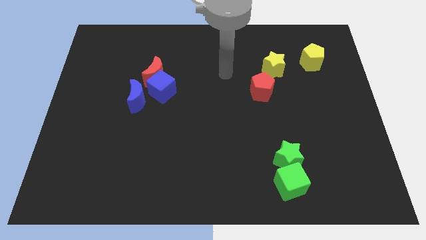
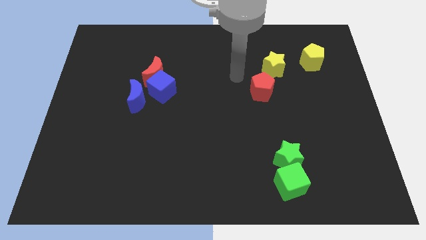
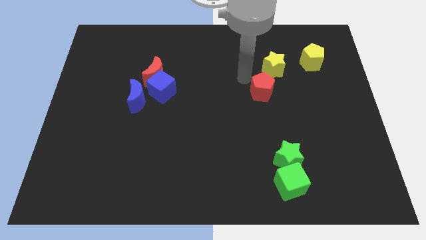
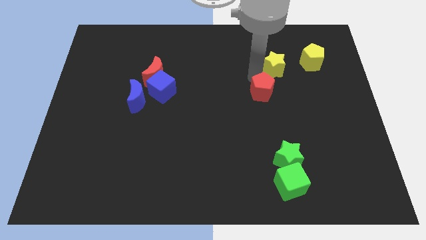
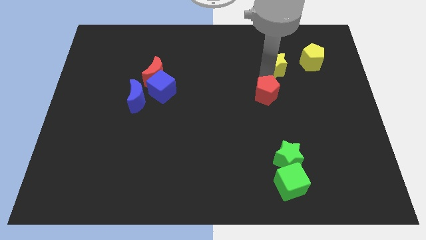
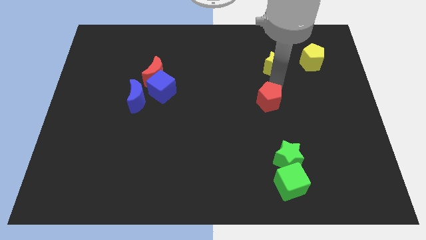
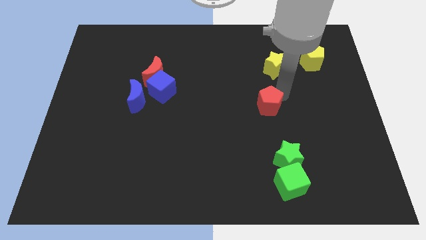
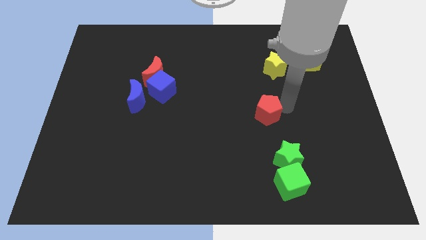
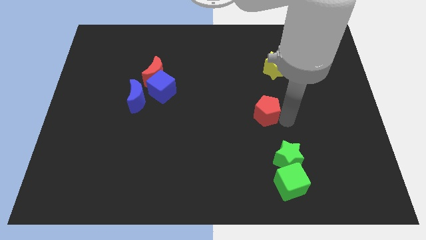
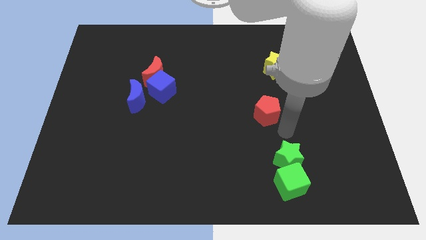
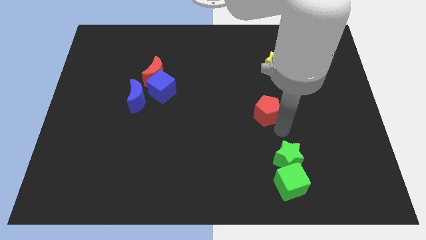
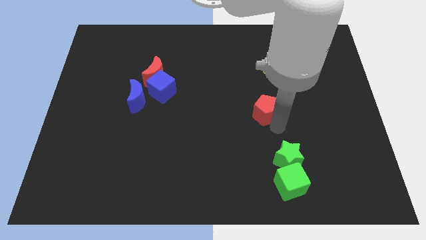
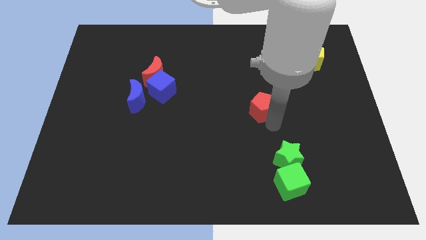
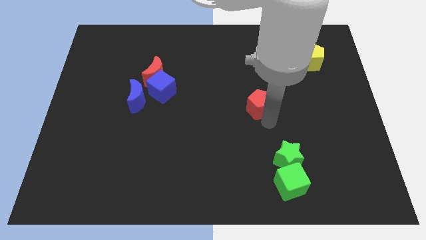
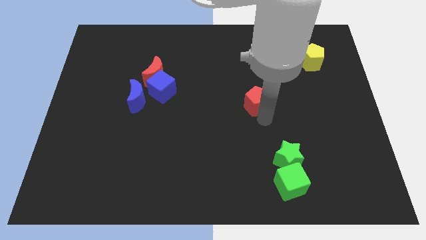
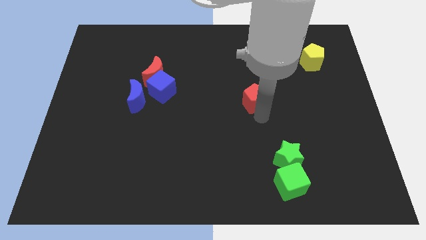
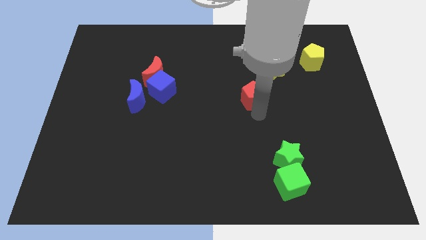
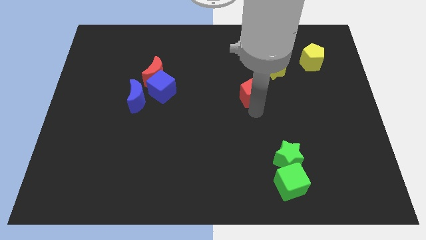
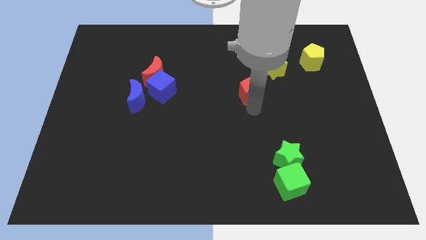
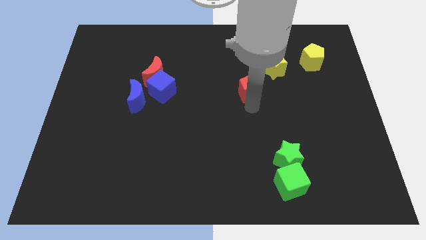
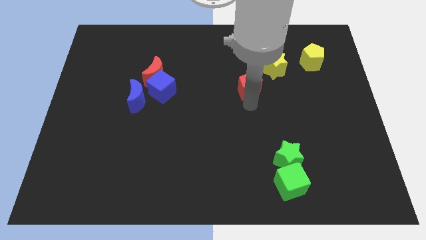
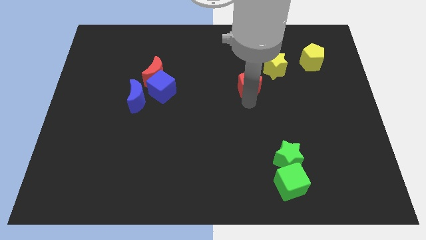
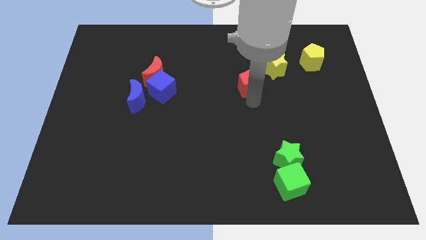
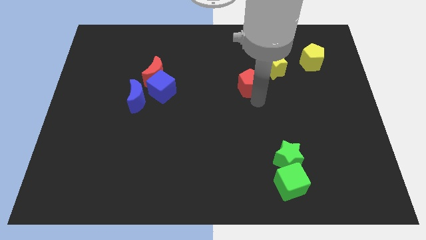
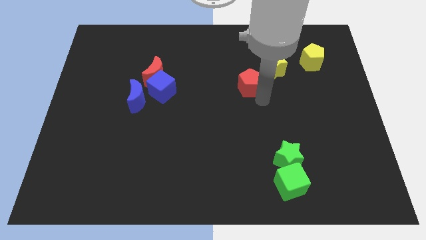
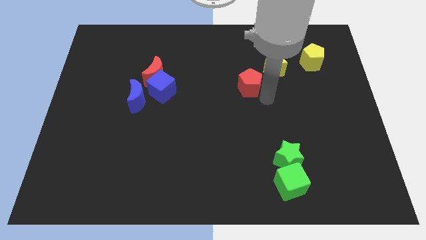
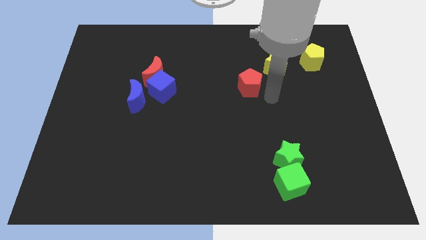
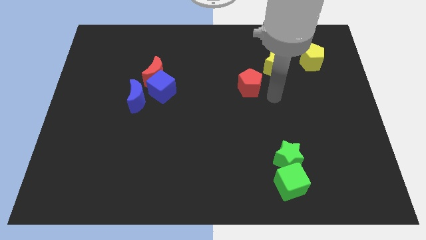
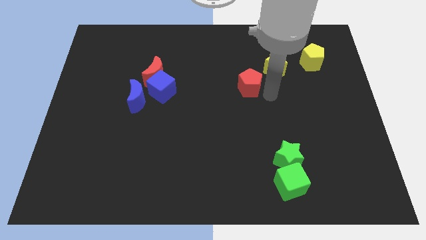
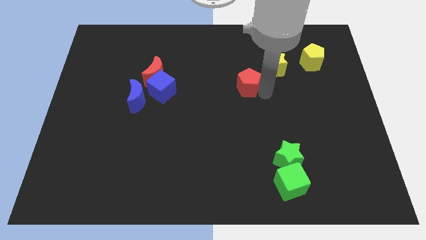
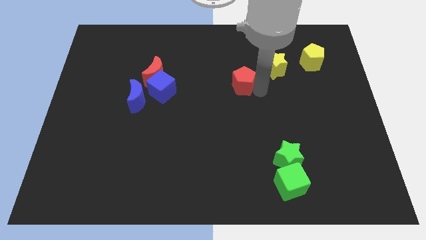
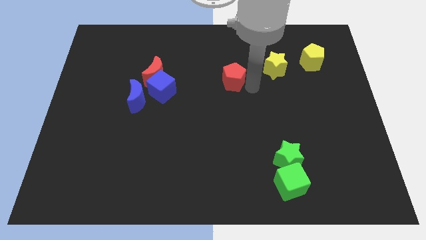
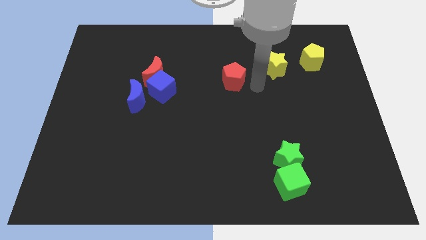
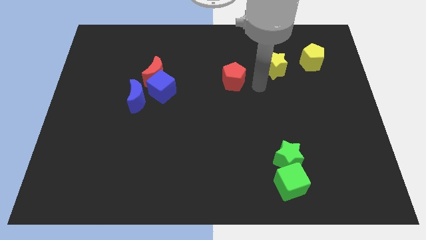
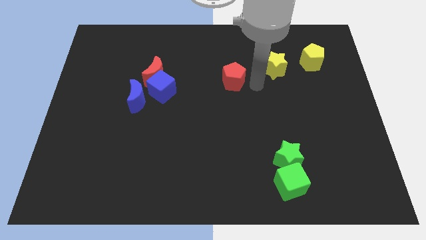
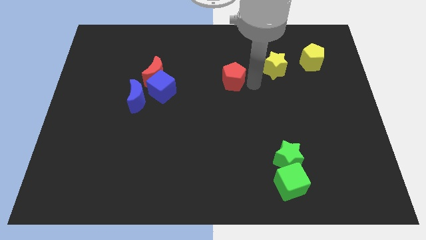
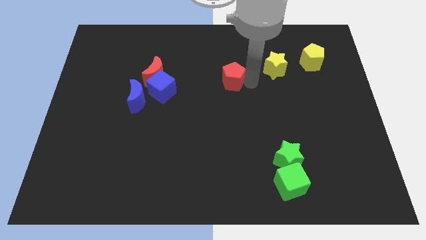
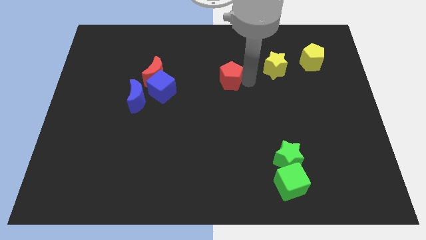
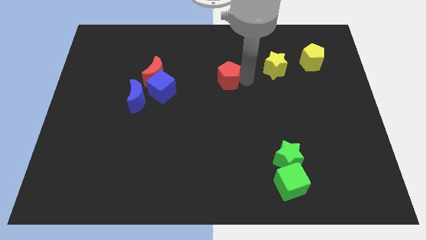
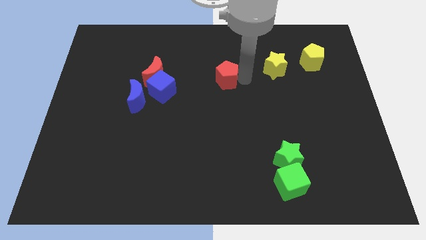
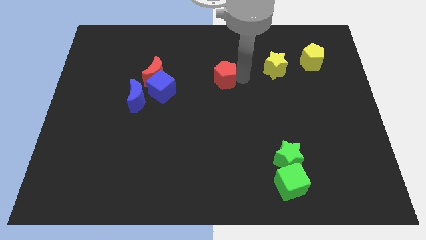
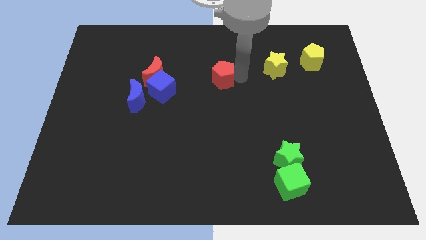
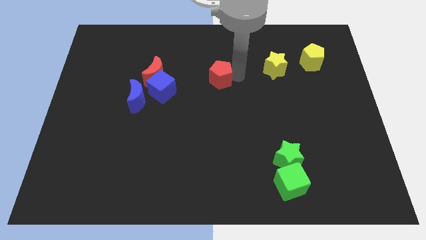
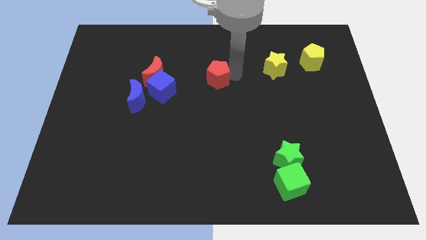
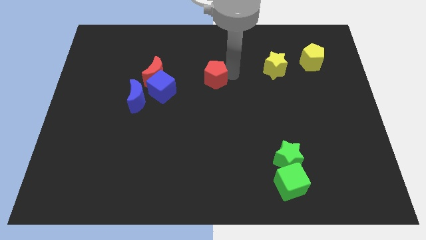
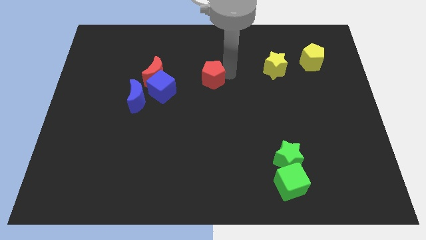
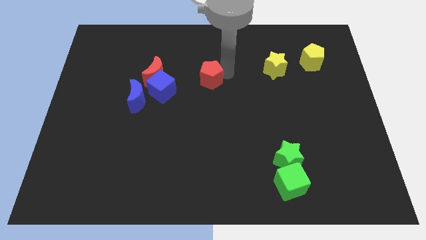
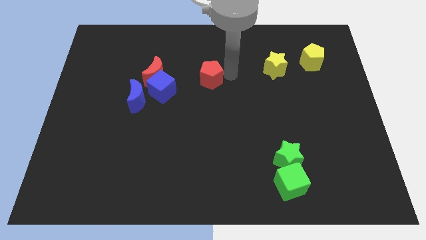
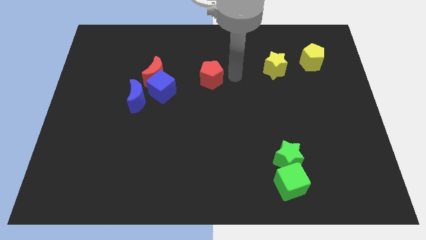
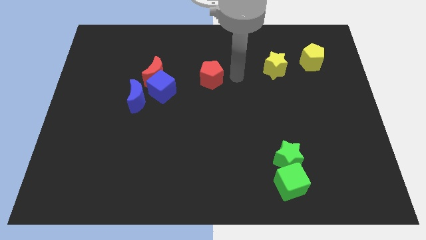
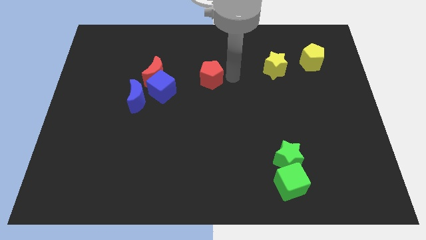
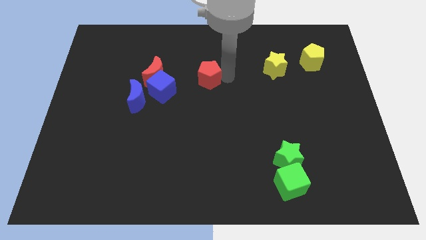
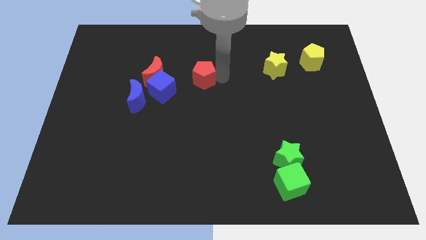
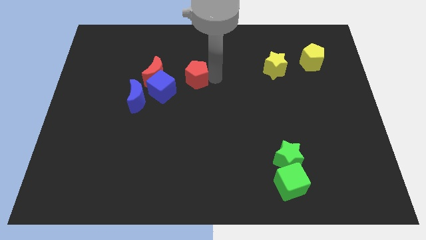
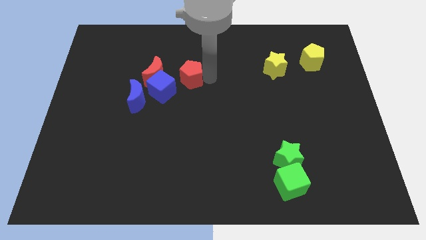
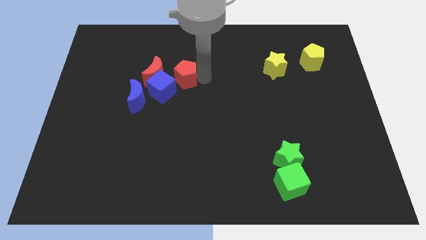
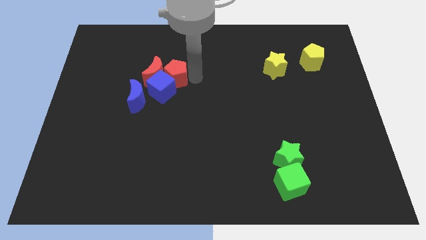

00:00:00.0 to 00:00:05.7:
move the red pentagon next to the red moon

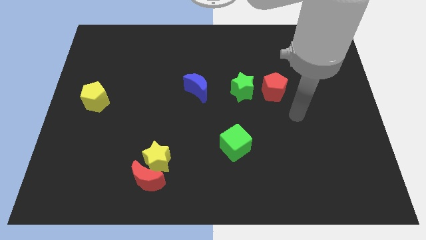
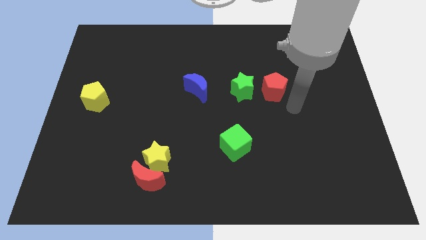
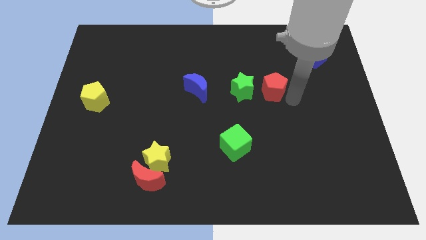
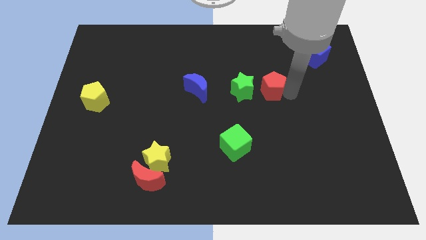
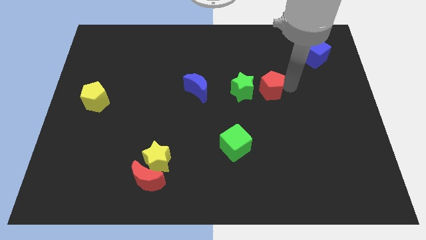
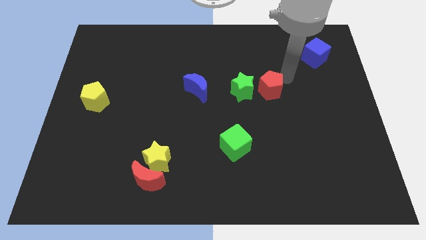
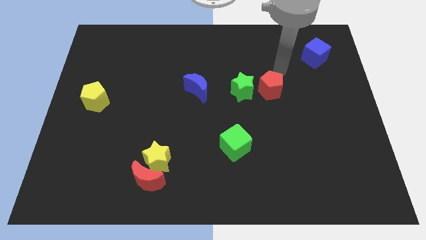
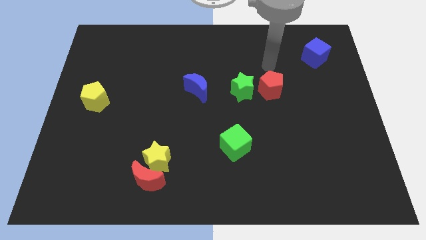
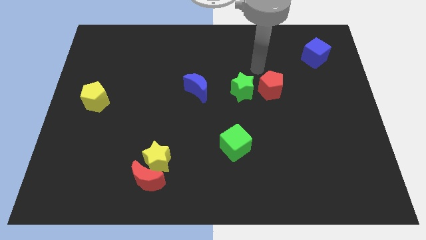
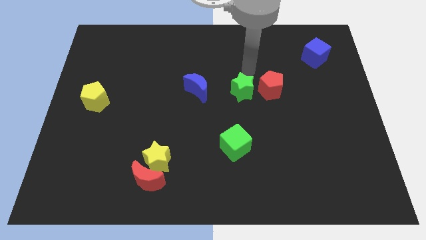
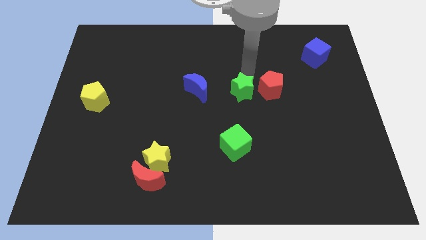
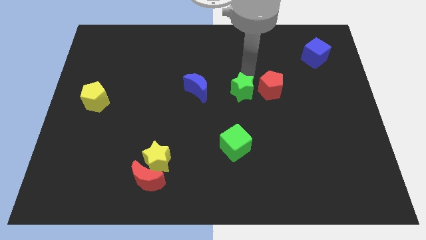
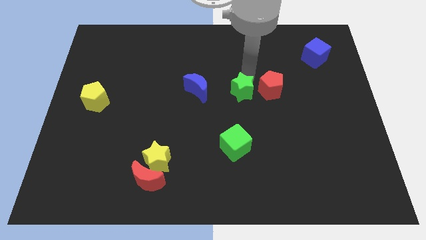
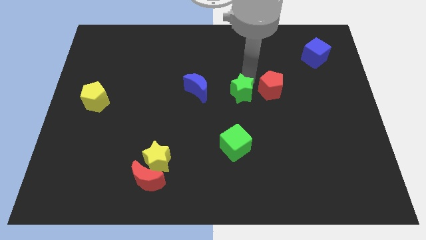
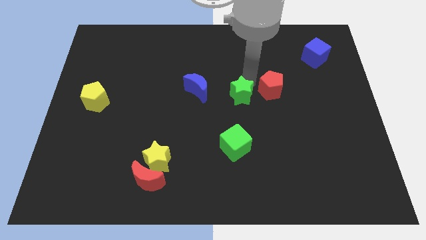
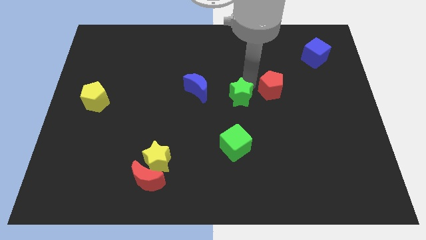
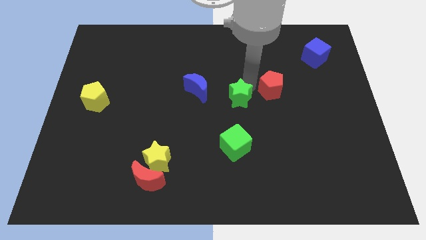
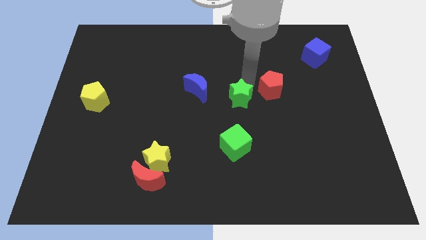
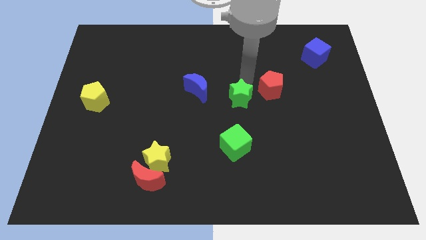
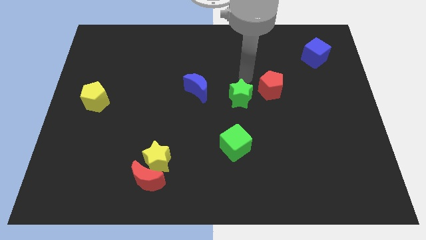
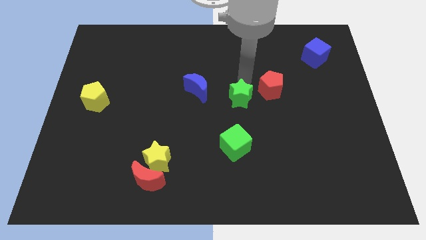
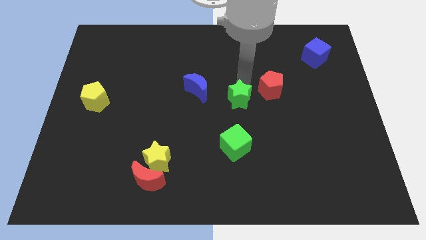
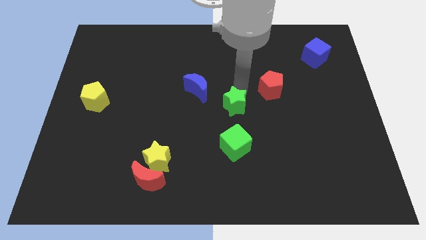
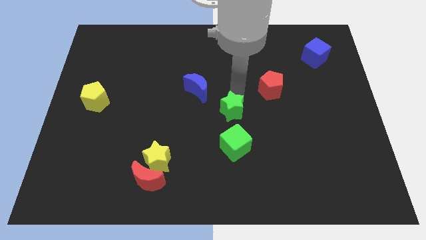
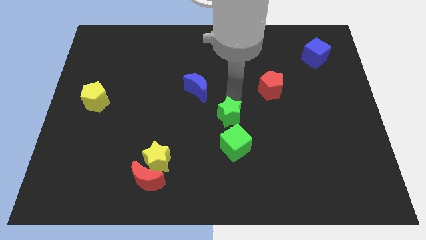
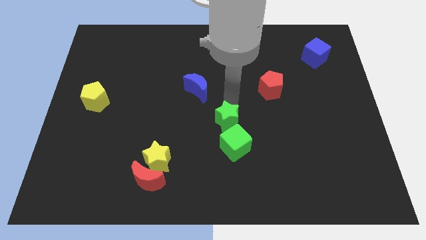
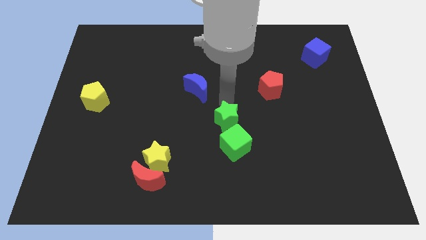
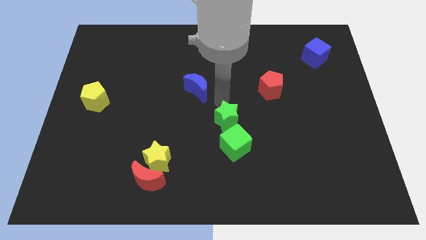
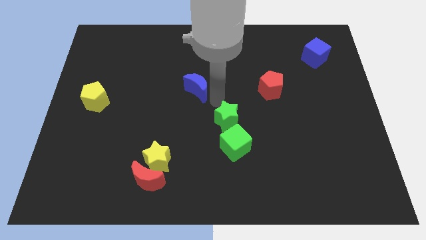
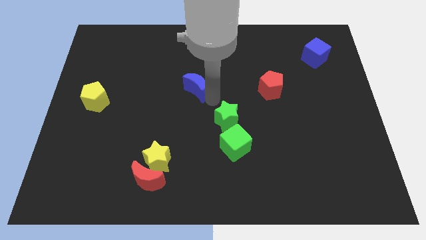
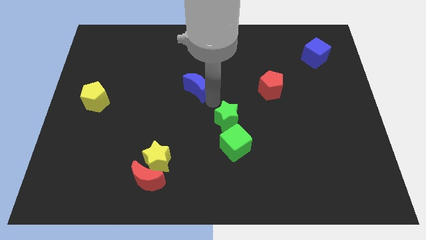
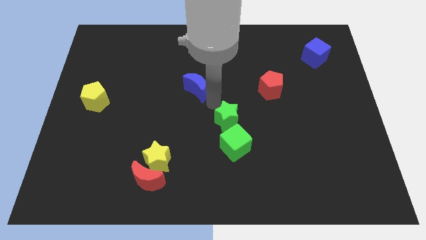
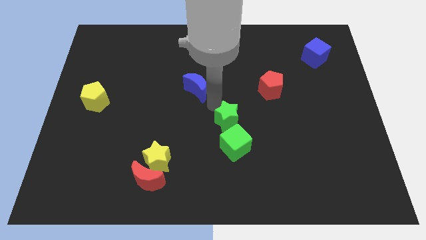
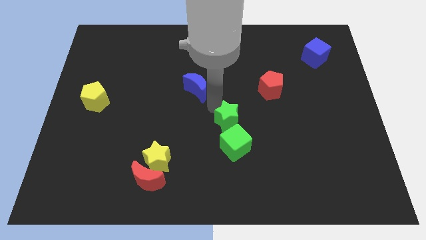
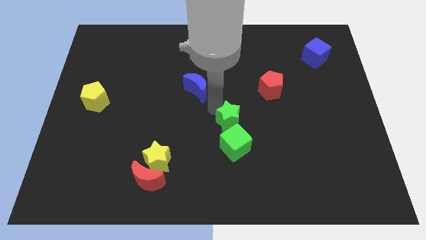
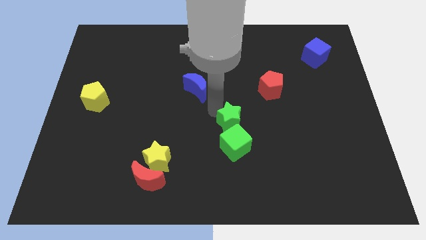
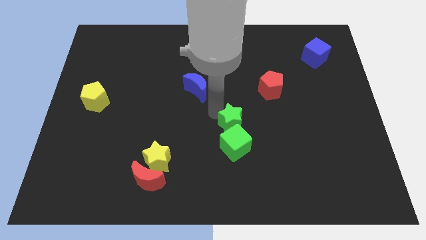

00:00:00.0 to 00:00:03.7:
move the green star close to the green cube
